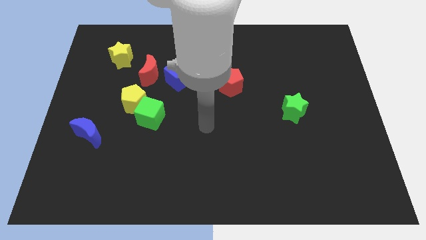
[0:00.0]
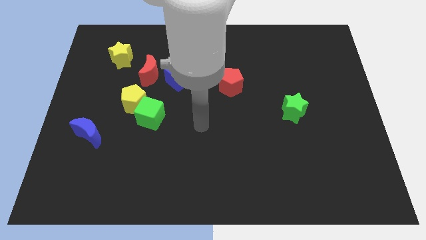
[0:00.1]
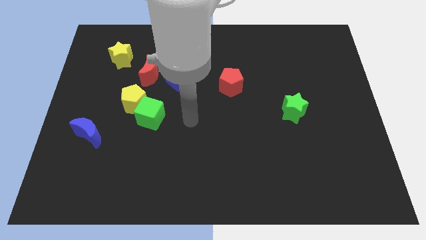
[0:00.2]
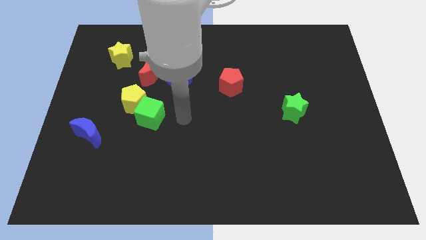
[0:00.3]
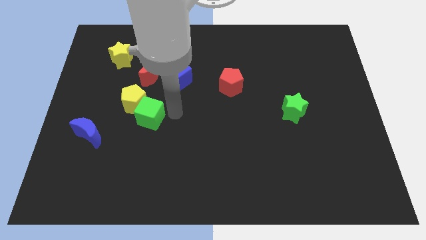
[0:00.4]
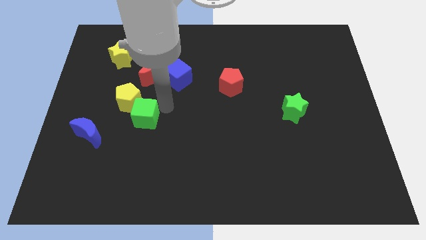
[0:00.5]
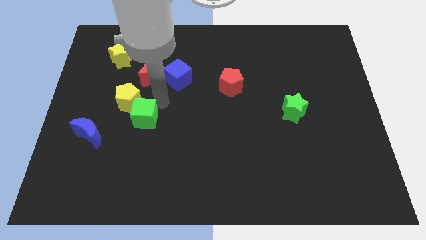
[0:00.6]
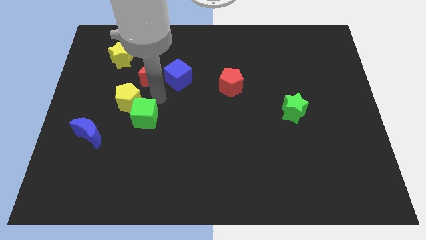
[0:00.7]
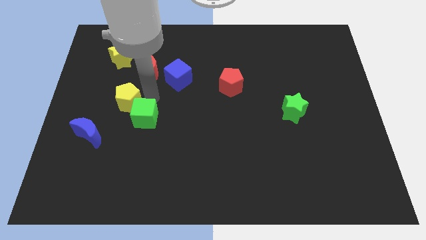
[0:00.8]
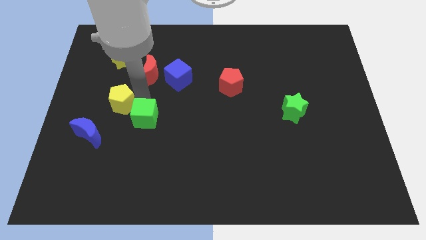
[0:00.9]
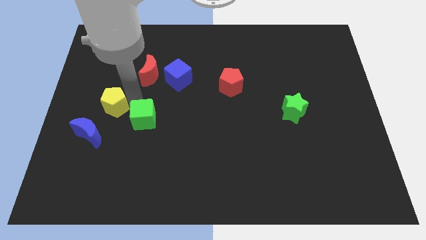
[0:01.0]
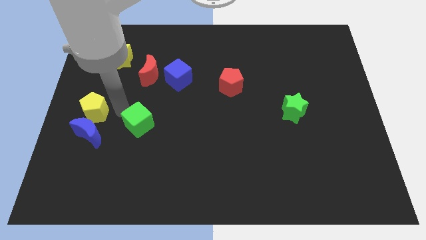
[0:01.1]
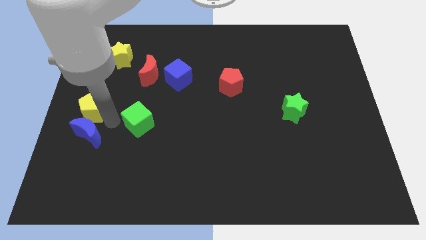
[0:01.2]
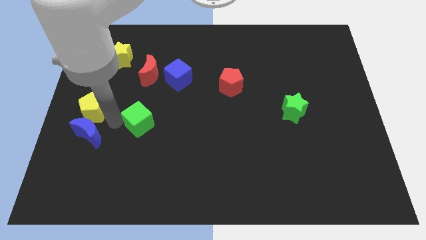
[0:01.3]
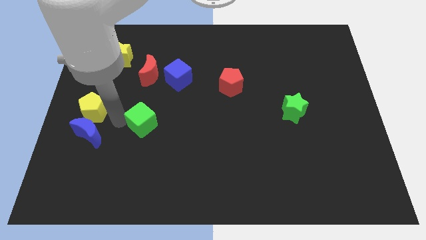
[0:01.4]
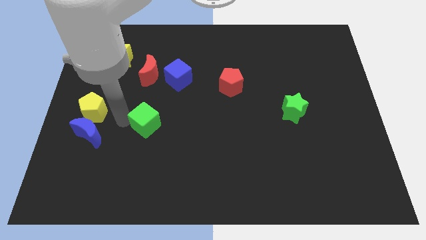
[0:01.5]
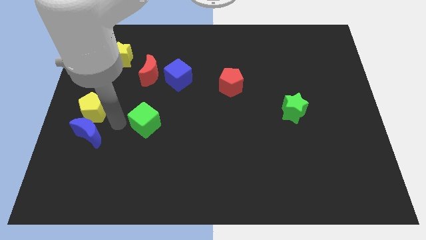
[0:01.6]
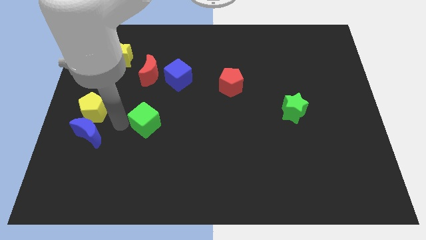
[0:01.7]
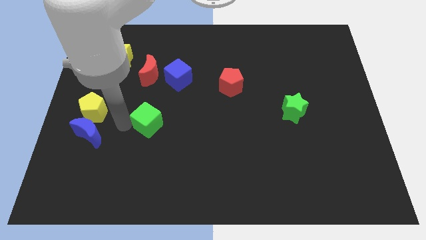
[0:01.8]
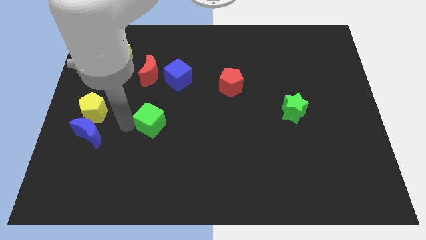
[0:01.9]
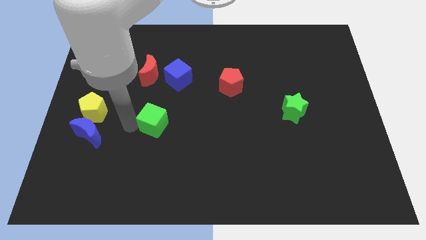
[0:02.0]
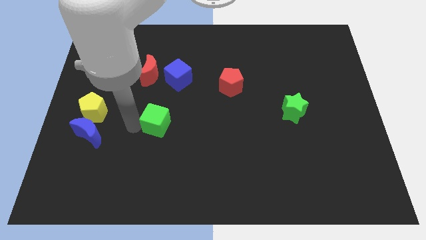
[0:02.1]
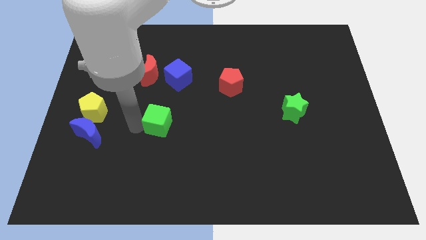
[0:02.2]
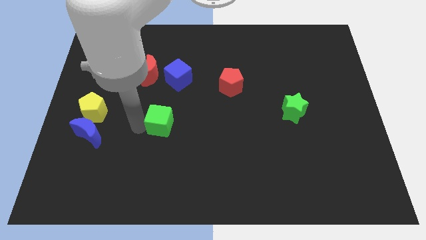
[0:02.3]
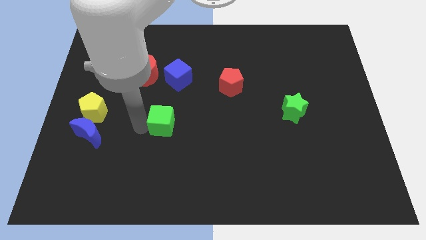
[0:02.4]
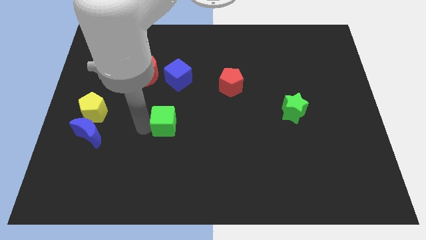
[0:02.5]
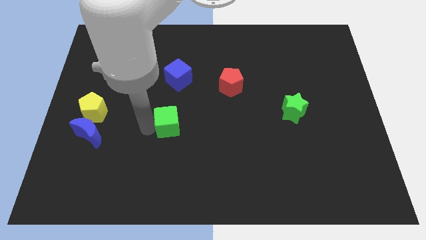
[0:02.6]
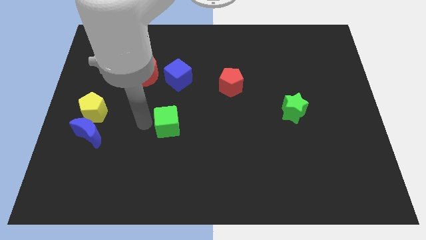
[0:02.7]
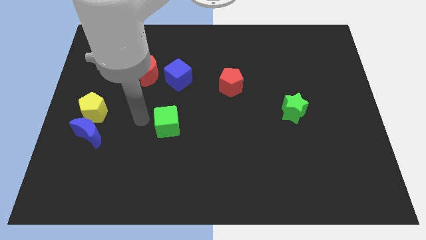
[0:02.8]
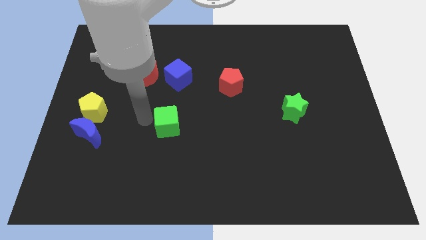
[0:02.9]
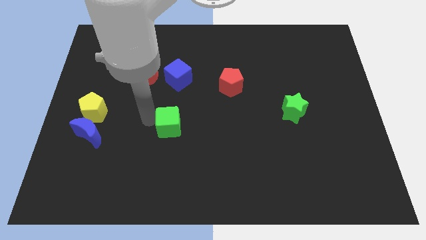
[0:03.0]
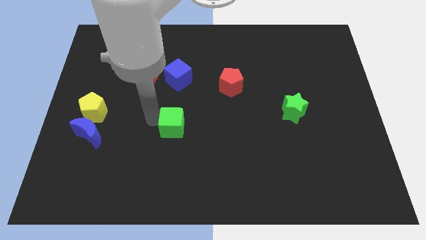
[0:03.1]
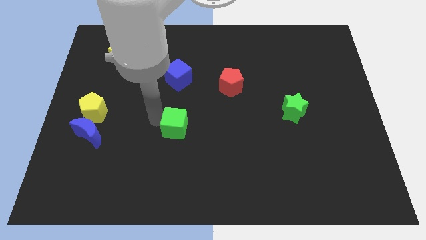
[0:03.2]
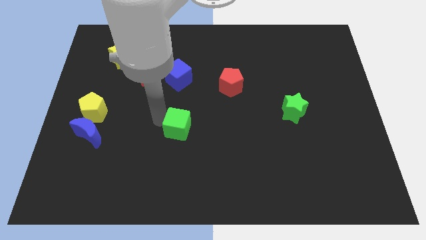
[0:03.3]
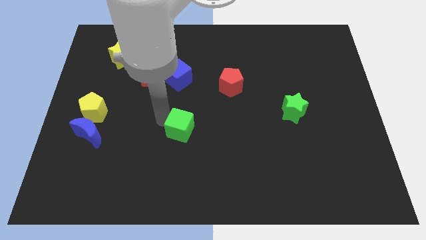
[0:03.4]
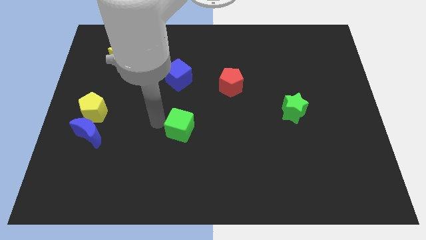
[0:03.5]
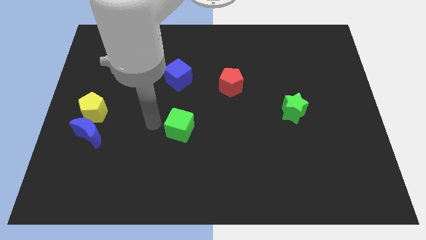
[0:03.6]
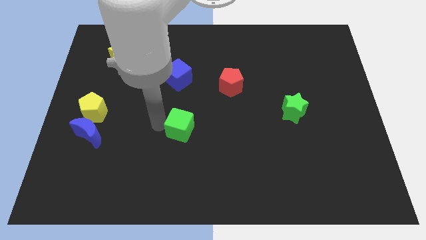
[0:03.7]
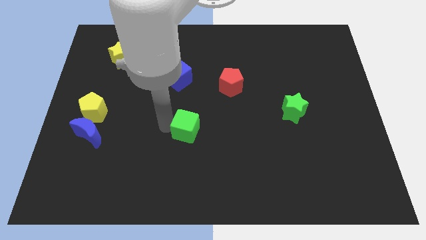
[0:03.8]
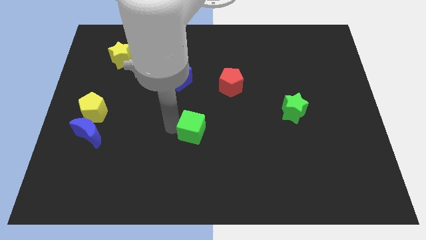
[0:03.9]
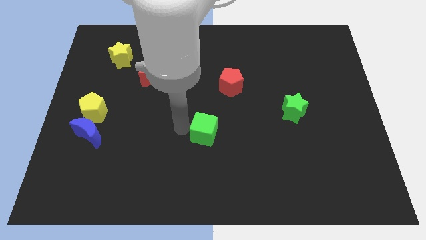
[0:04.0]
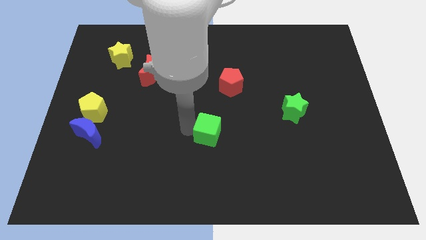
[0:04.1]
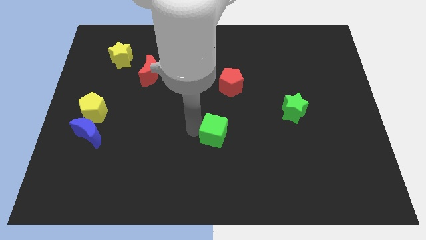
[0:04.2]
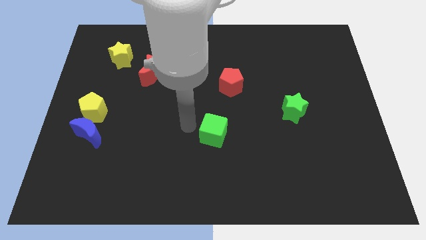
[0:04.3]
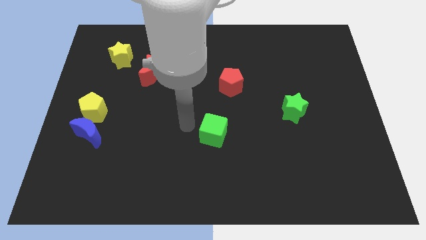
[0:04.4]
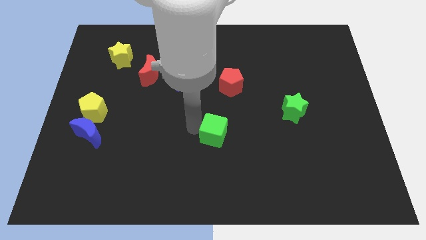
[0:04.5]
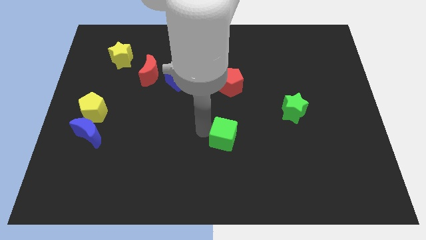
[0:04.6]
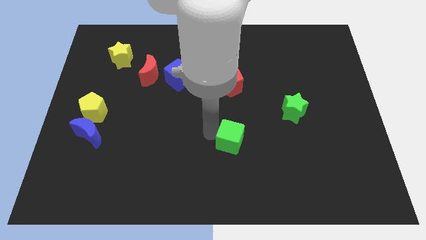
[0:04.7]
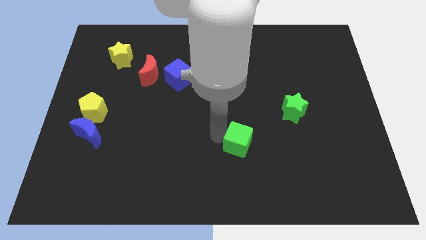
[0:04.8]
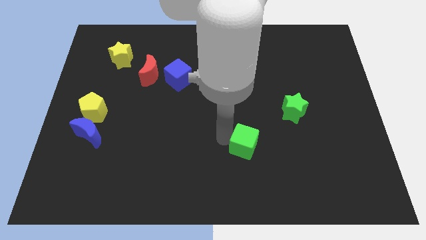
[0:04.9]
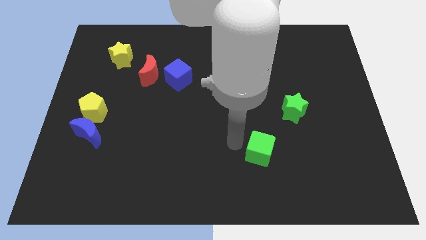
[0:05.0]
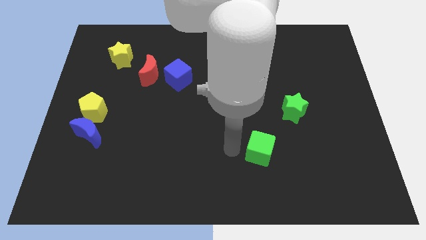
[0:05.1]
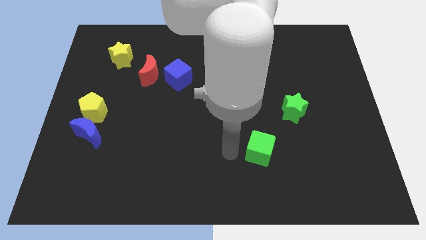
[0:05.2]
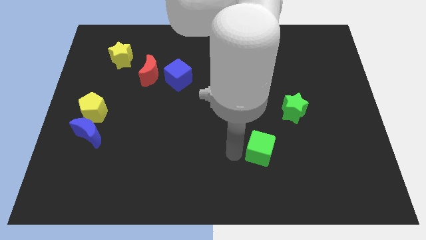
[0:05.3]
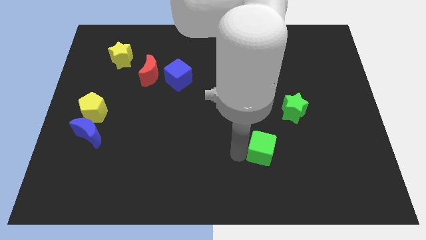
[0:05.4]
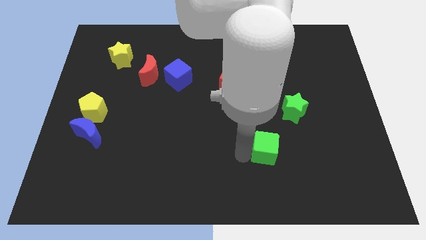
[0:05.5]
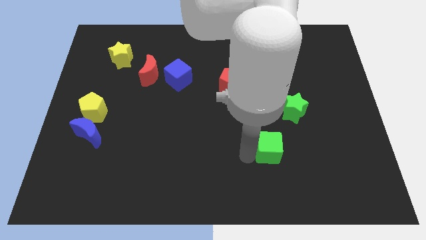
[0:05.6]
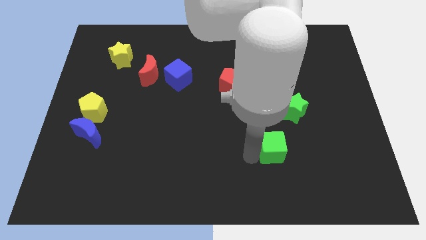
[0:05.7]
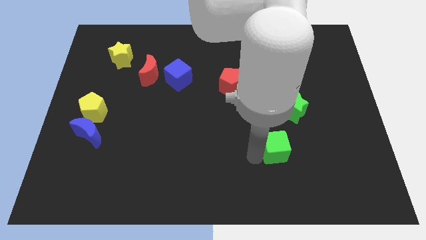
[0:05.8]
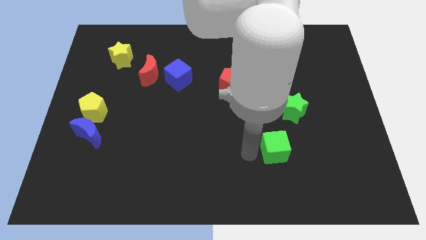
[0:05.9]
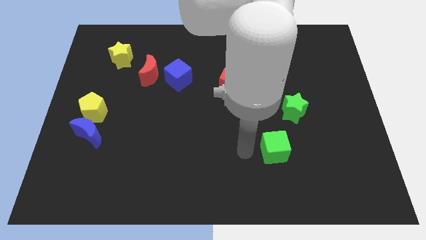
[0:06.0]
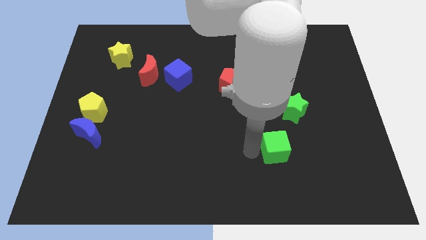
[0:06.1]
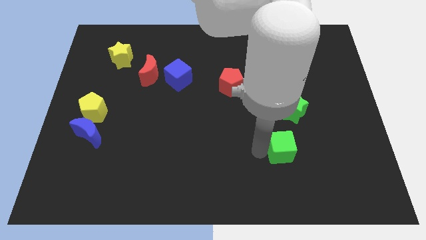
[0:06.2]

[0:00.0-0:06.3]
move the green cube to the bottom of the green star

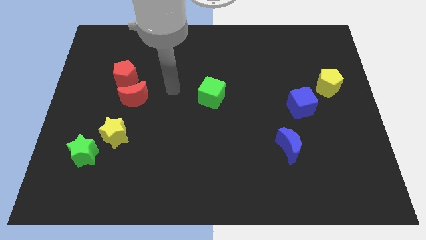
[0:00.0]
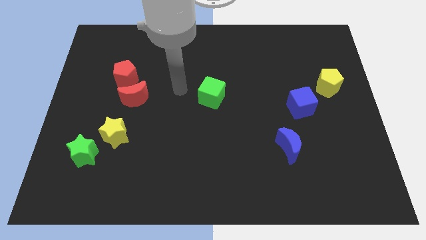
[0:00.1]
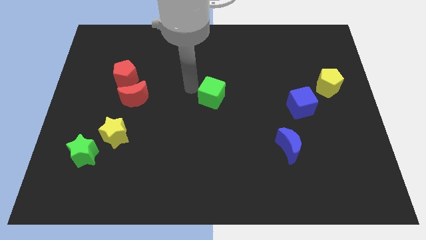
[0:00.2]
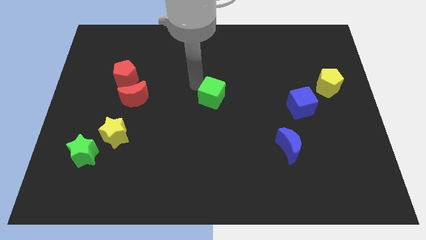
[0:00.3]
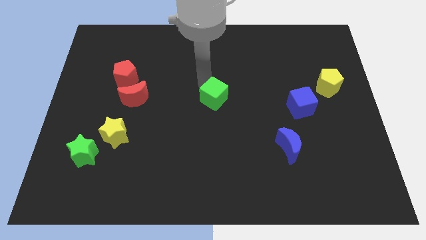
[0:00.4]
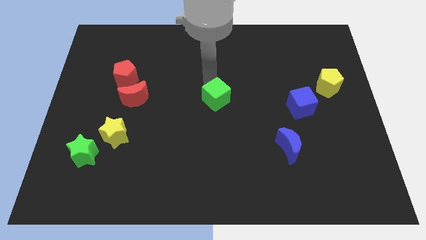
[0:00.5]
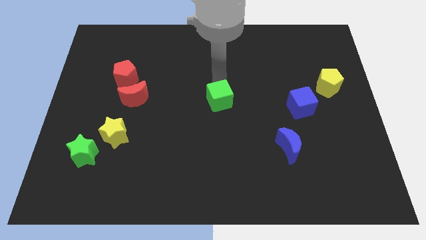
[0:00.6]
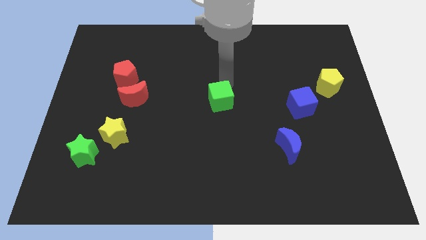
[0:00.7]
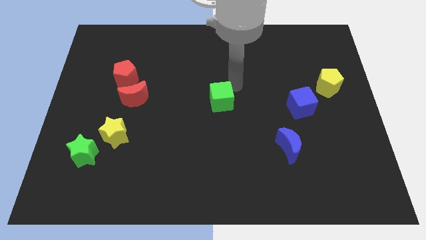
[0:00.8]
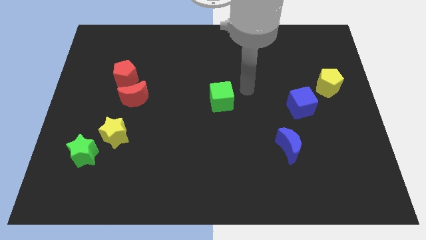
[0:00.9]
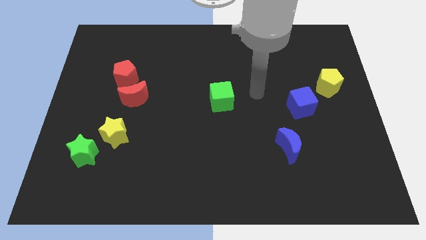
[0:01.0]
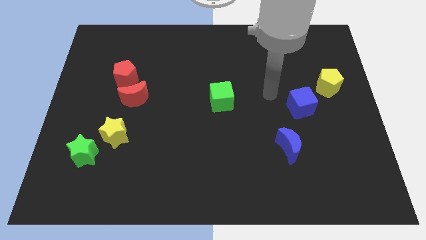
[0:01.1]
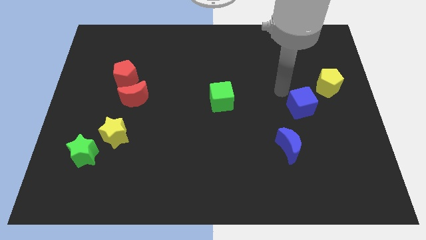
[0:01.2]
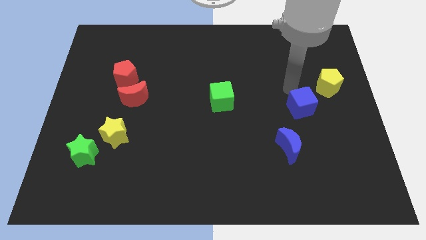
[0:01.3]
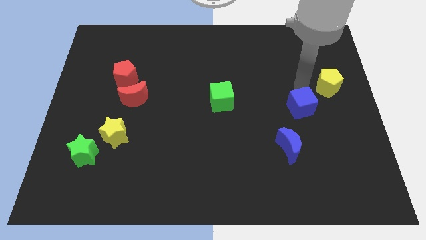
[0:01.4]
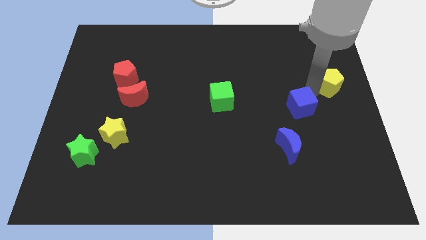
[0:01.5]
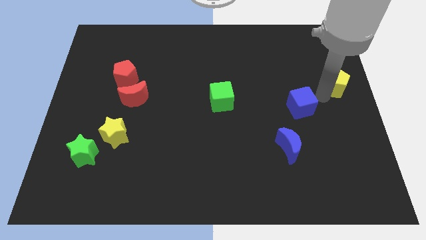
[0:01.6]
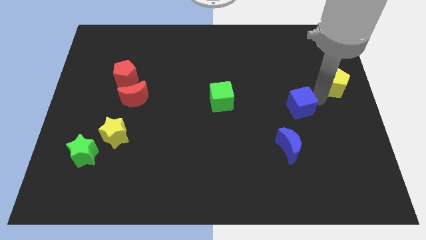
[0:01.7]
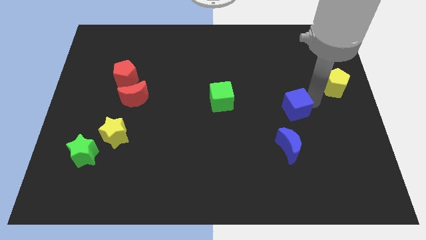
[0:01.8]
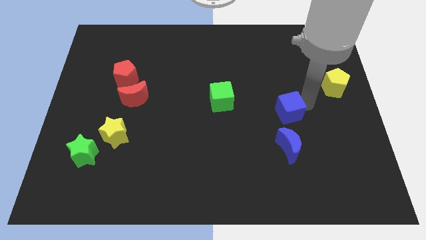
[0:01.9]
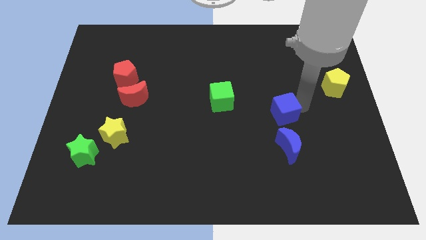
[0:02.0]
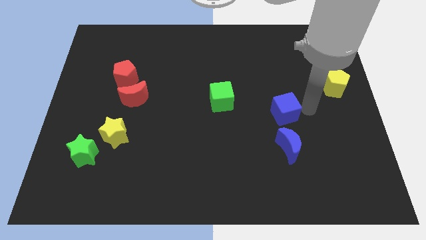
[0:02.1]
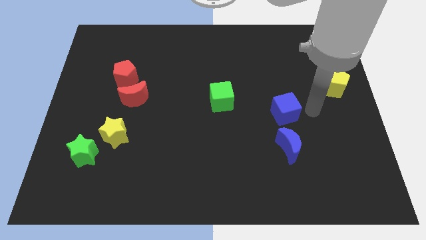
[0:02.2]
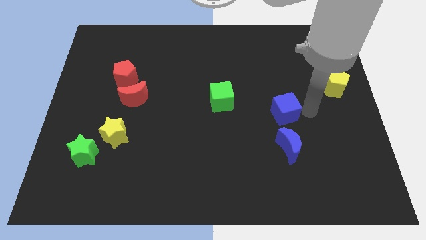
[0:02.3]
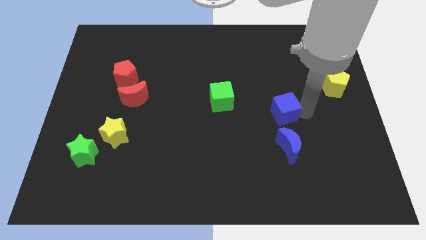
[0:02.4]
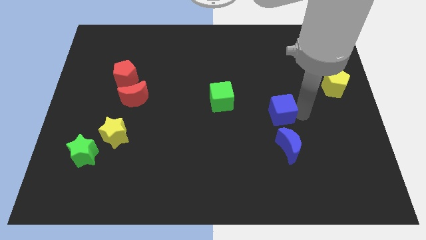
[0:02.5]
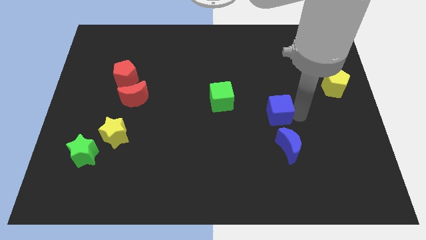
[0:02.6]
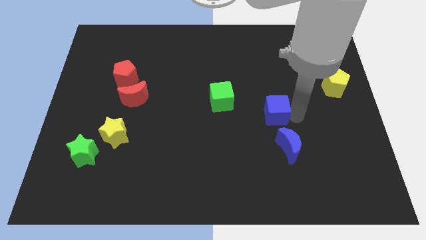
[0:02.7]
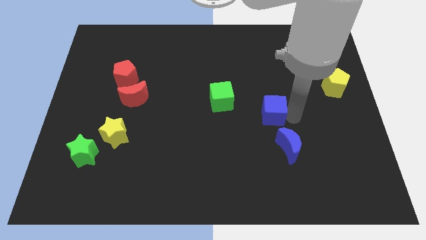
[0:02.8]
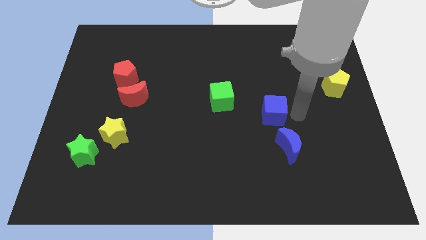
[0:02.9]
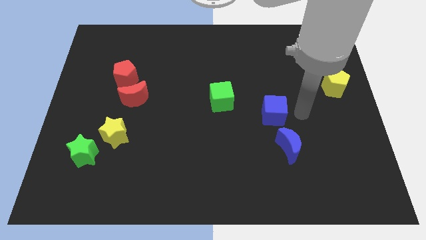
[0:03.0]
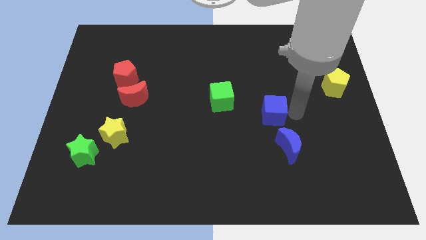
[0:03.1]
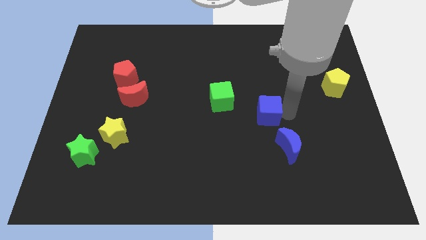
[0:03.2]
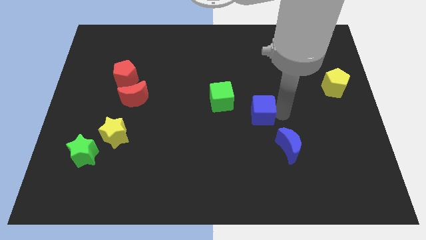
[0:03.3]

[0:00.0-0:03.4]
slide the blue cube to the bottom right of the green cube
